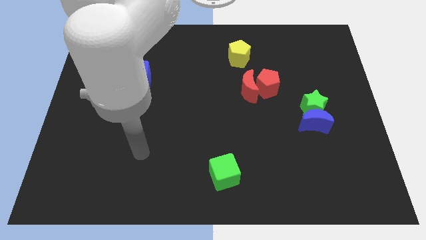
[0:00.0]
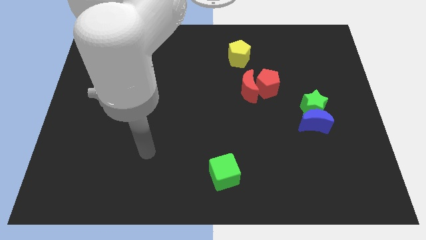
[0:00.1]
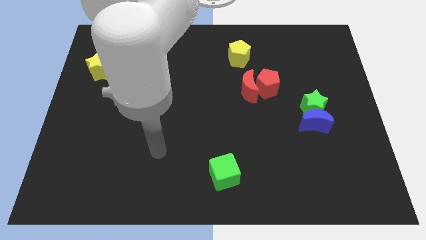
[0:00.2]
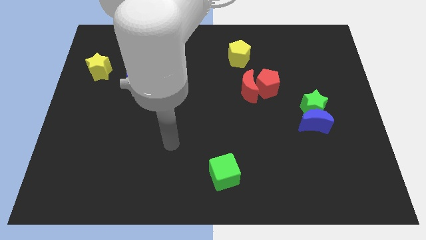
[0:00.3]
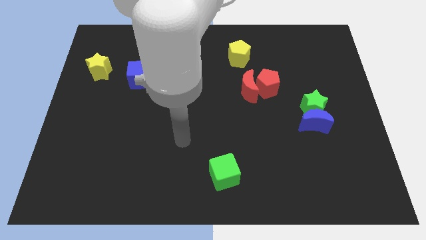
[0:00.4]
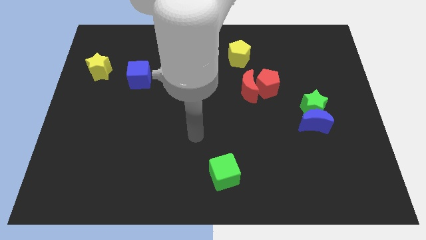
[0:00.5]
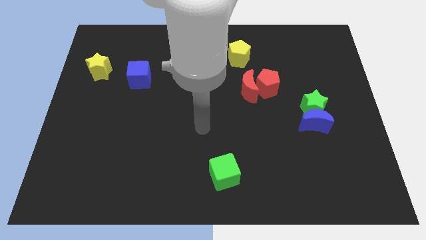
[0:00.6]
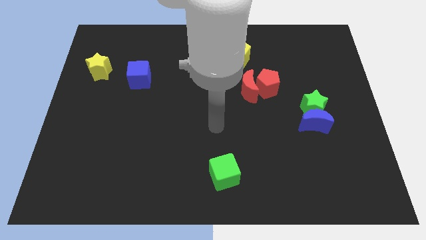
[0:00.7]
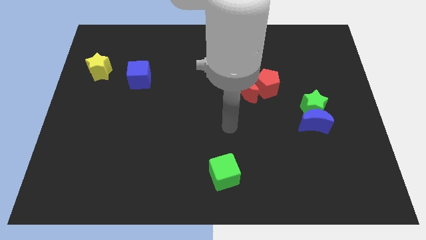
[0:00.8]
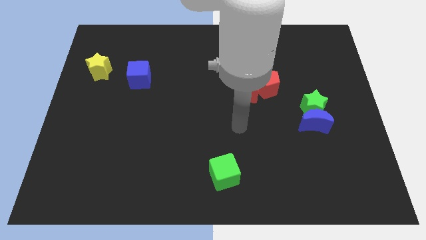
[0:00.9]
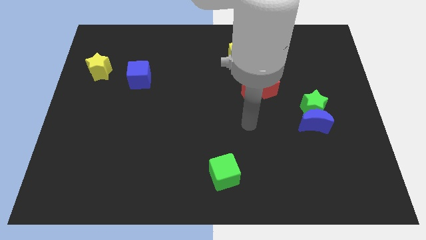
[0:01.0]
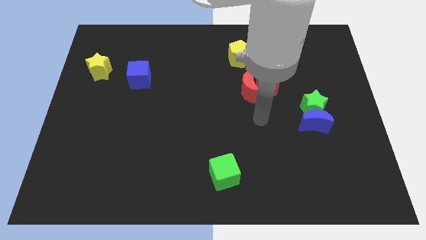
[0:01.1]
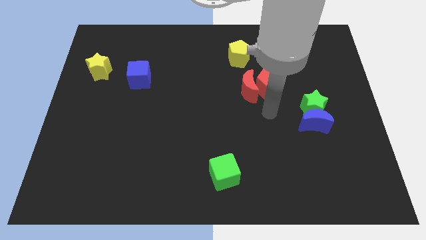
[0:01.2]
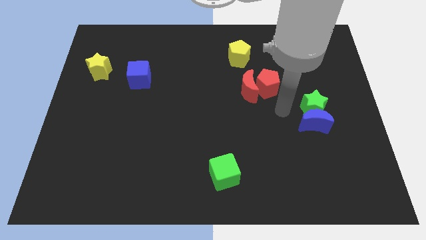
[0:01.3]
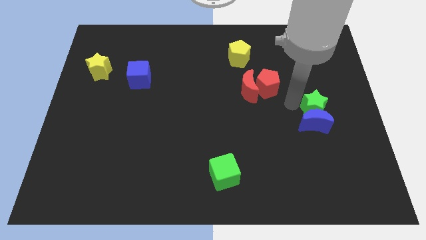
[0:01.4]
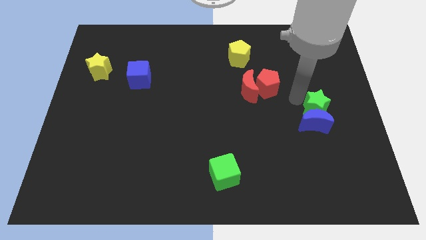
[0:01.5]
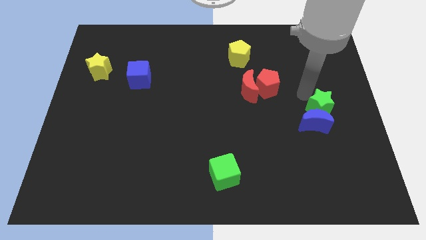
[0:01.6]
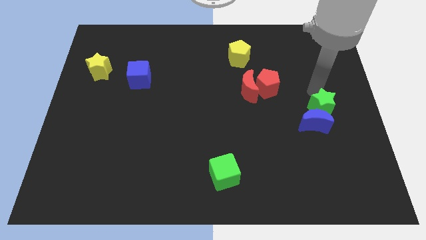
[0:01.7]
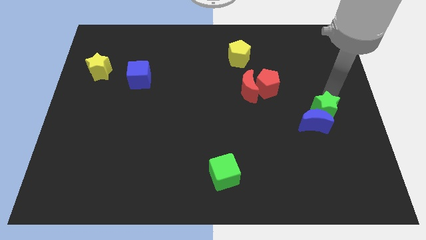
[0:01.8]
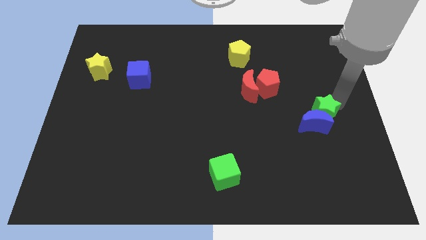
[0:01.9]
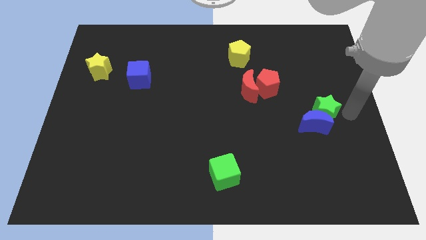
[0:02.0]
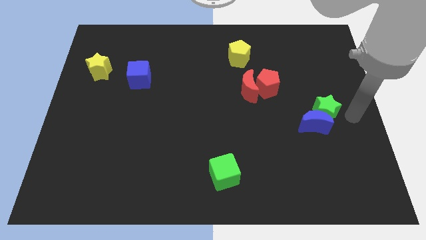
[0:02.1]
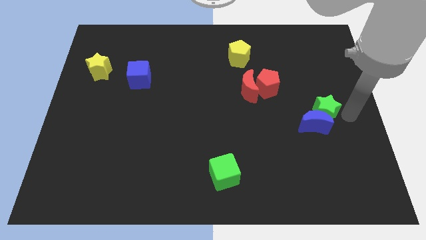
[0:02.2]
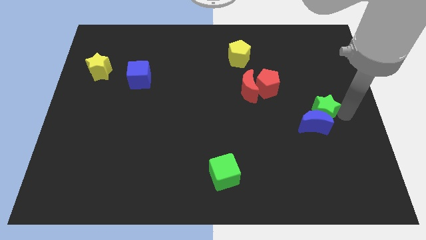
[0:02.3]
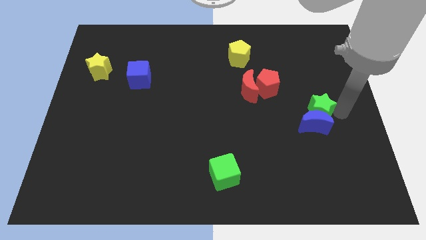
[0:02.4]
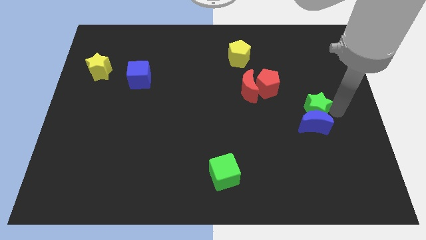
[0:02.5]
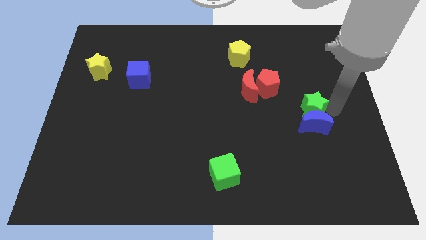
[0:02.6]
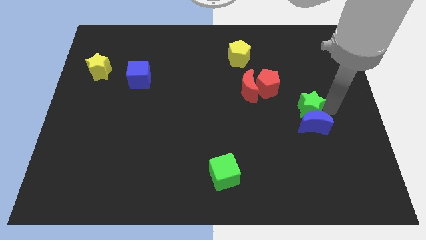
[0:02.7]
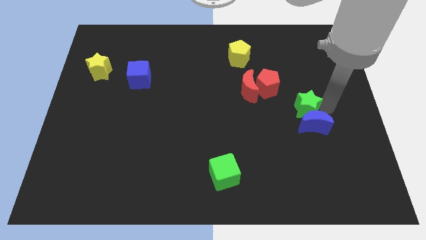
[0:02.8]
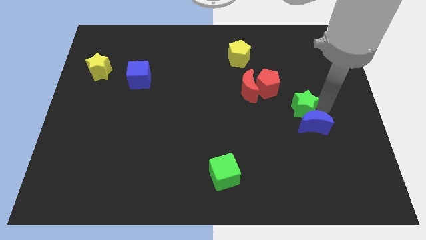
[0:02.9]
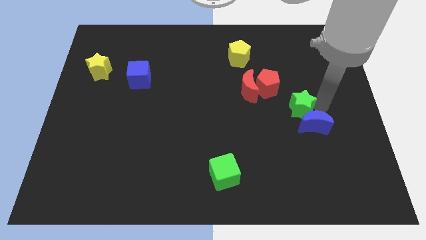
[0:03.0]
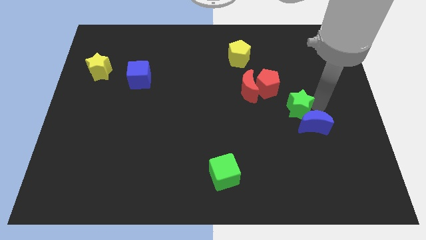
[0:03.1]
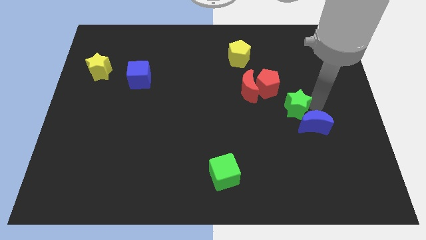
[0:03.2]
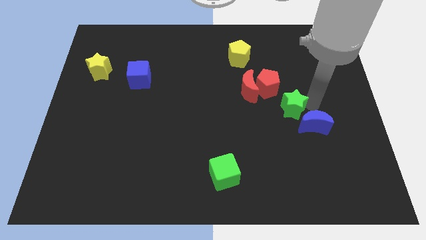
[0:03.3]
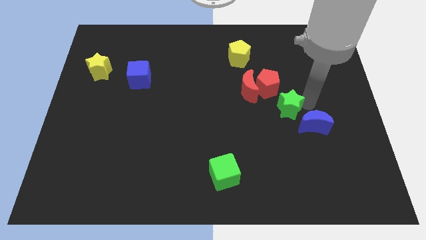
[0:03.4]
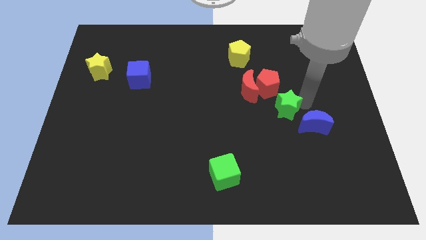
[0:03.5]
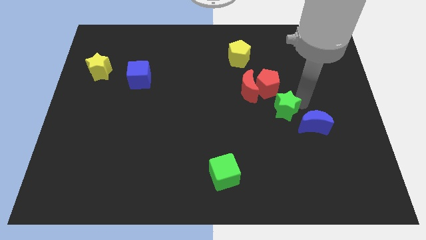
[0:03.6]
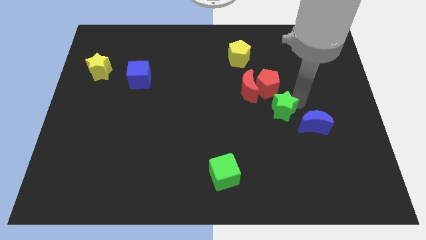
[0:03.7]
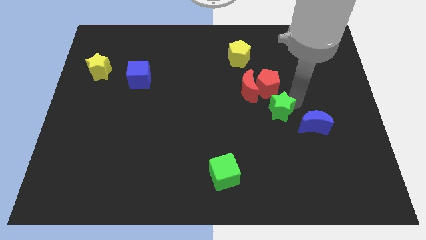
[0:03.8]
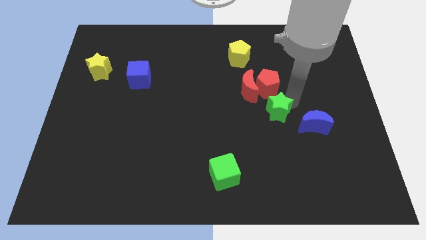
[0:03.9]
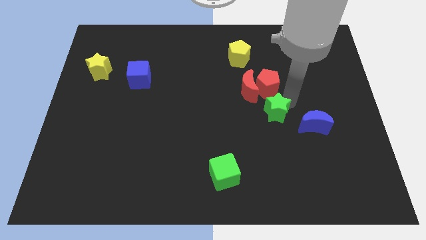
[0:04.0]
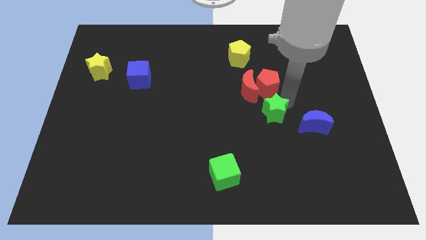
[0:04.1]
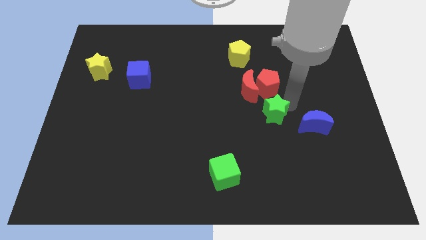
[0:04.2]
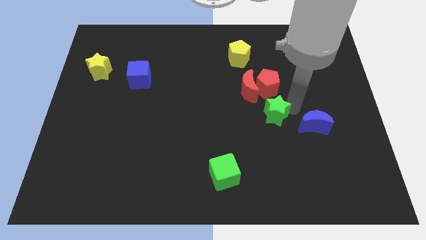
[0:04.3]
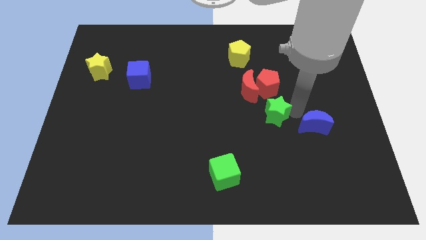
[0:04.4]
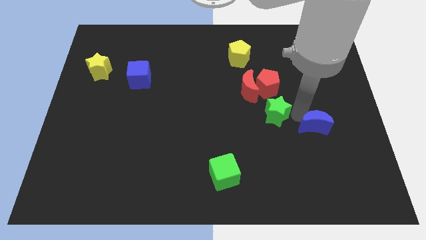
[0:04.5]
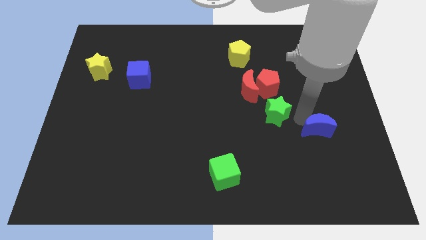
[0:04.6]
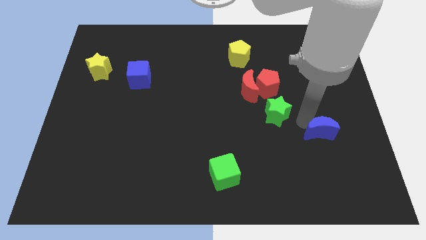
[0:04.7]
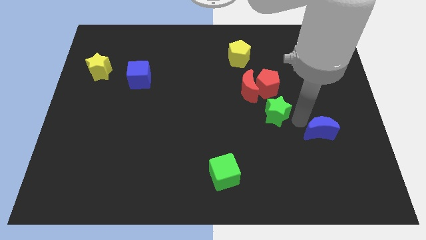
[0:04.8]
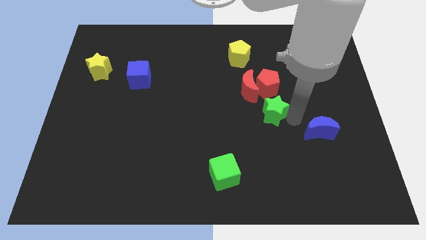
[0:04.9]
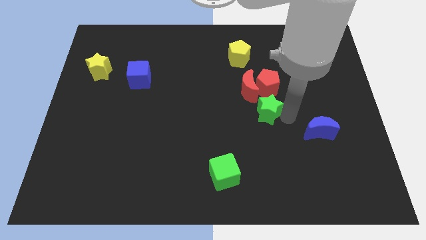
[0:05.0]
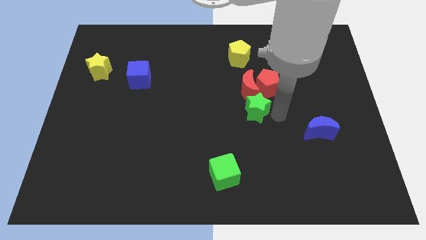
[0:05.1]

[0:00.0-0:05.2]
push the green star to the middle

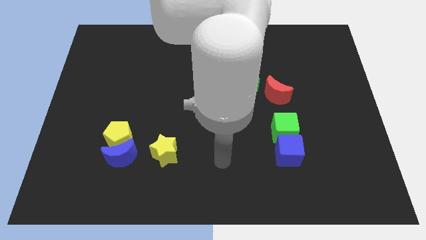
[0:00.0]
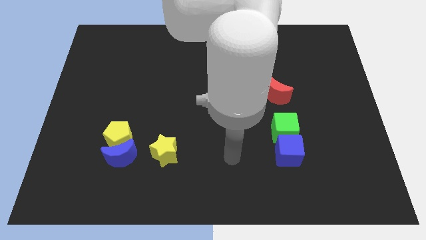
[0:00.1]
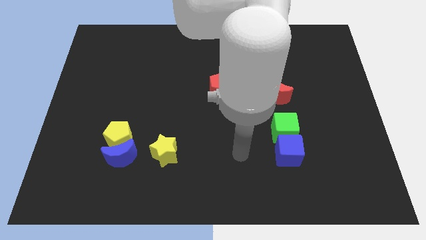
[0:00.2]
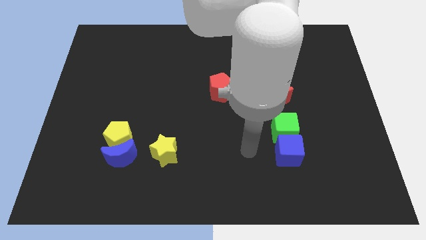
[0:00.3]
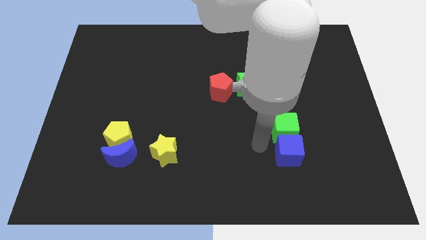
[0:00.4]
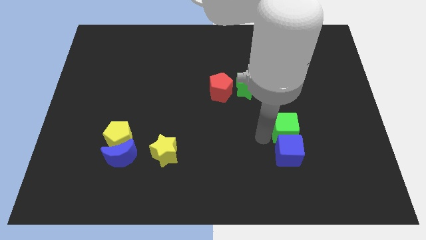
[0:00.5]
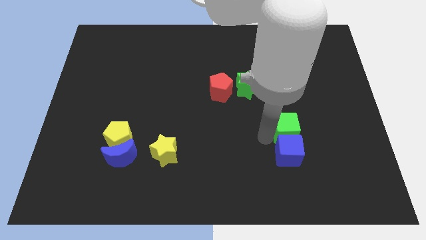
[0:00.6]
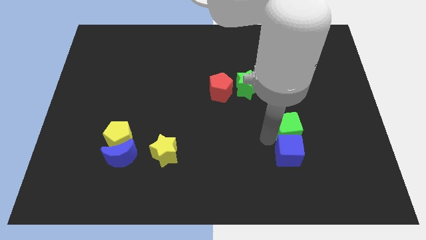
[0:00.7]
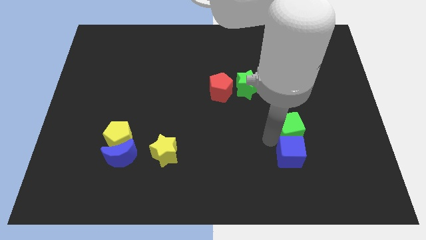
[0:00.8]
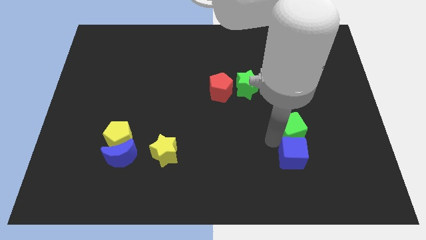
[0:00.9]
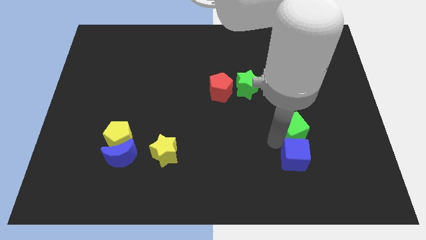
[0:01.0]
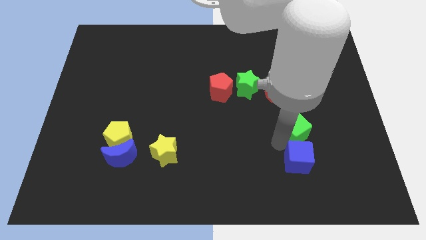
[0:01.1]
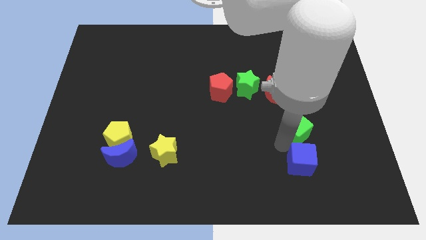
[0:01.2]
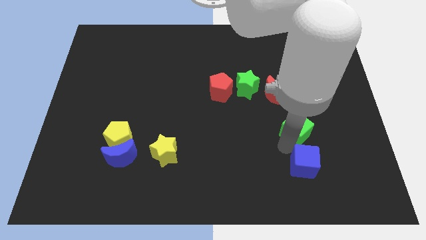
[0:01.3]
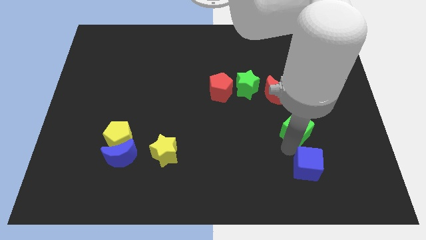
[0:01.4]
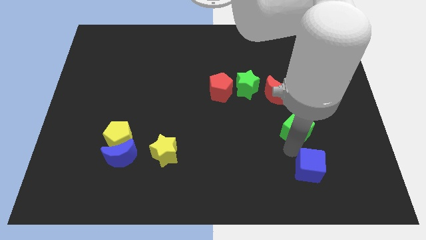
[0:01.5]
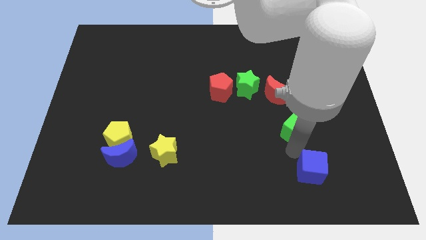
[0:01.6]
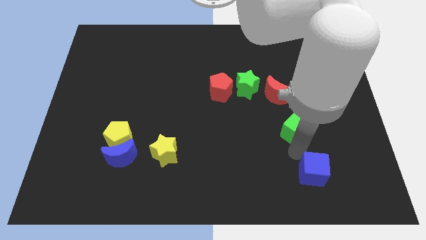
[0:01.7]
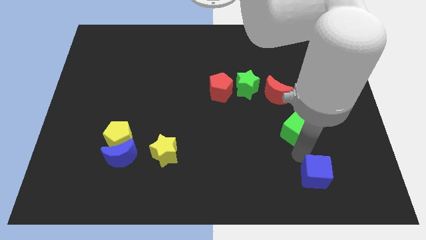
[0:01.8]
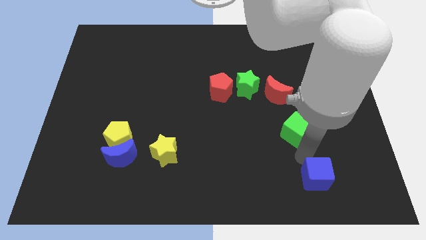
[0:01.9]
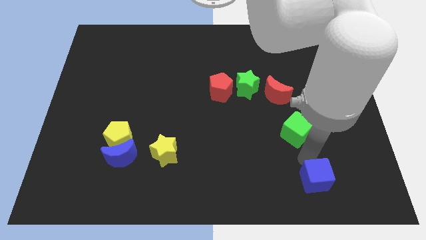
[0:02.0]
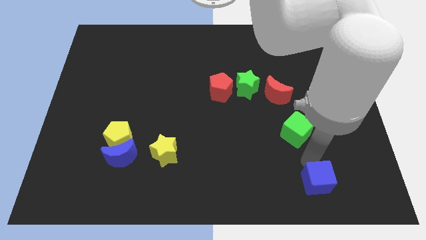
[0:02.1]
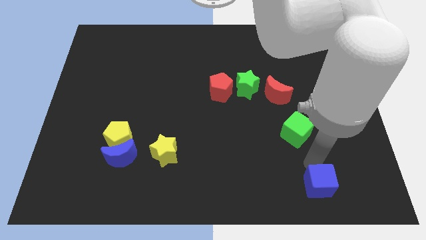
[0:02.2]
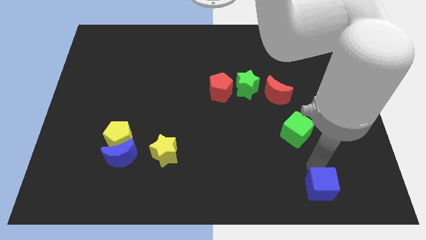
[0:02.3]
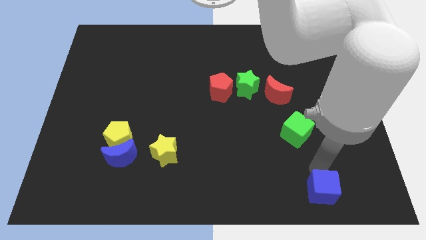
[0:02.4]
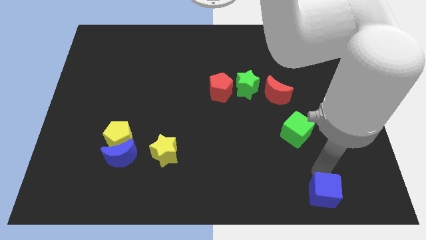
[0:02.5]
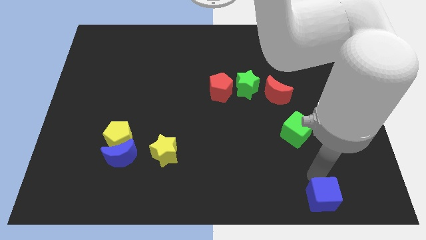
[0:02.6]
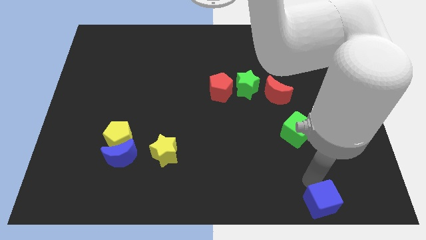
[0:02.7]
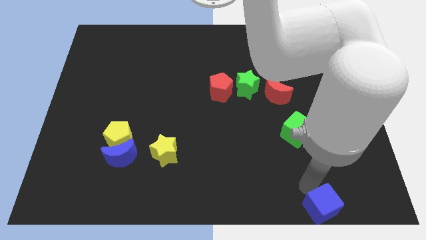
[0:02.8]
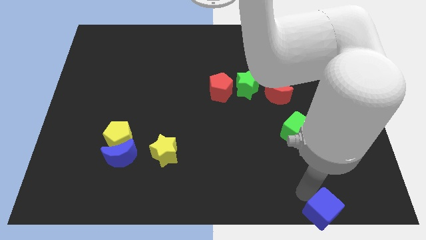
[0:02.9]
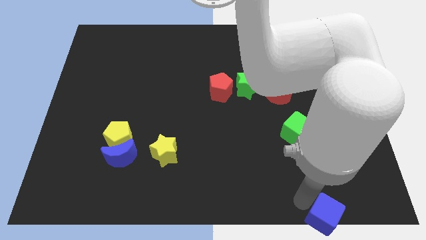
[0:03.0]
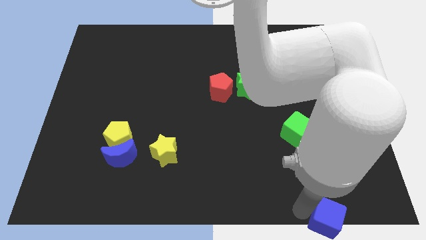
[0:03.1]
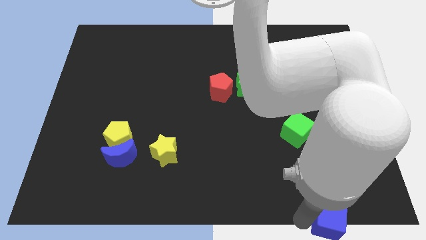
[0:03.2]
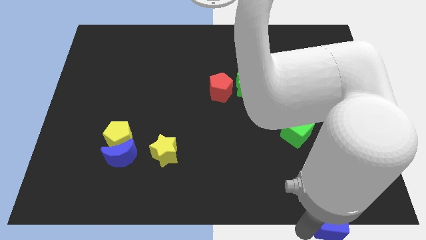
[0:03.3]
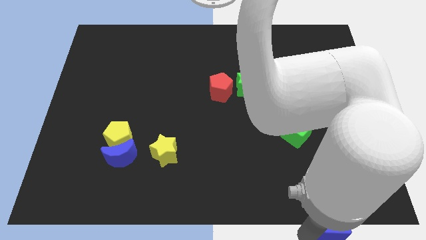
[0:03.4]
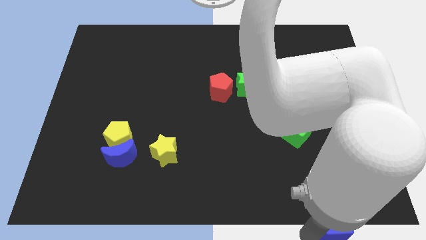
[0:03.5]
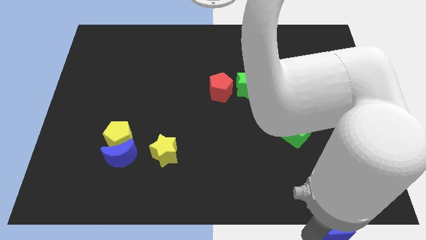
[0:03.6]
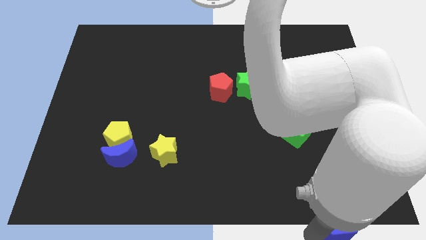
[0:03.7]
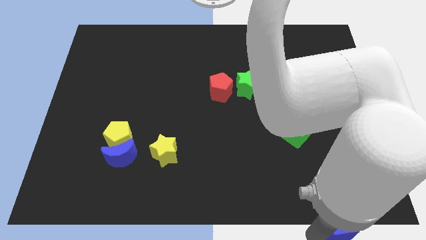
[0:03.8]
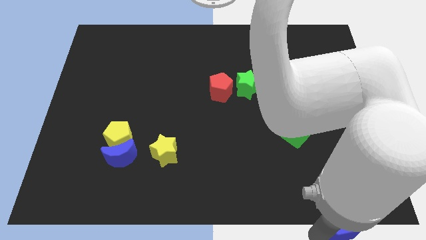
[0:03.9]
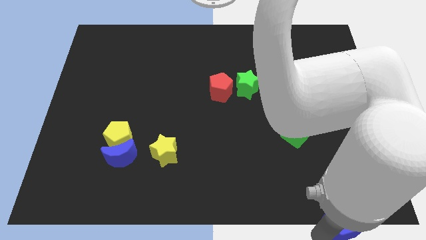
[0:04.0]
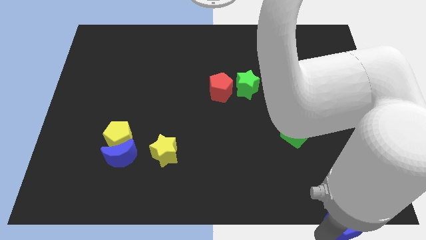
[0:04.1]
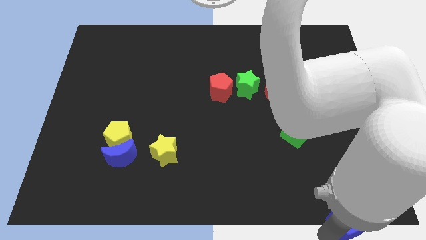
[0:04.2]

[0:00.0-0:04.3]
slide the blue cube to the bottom right corner
